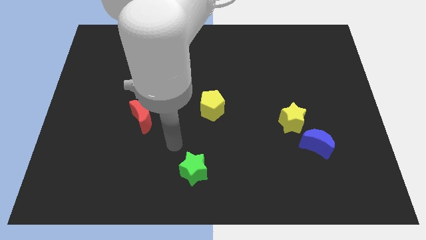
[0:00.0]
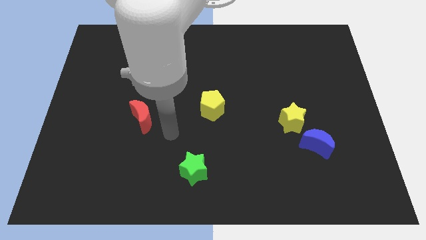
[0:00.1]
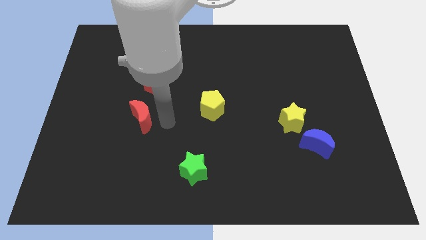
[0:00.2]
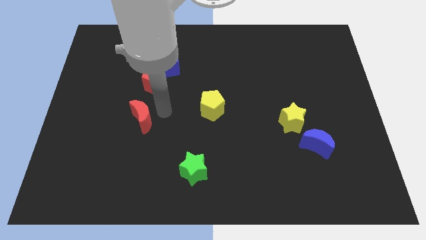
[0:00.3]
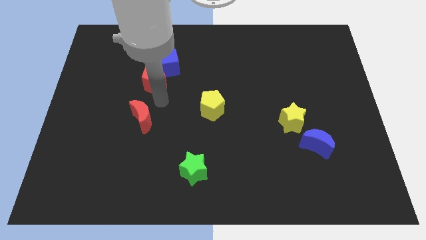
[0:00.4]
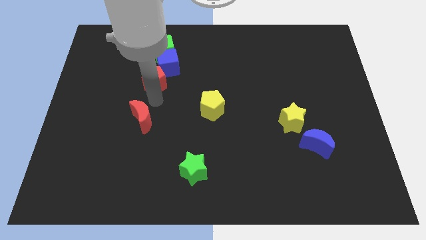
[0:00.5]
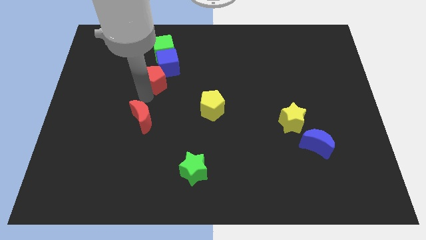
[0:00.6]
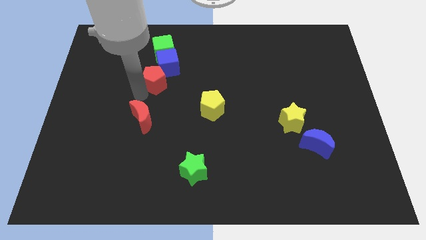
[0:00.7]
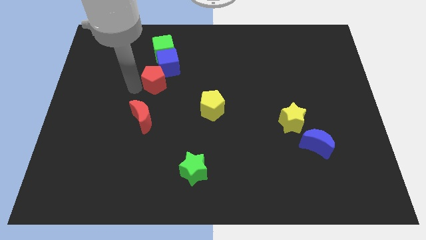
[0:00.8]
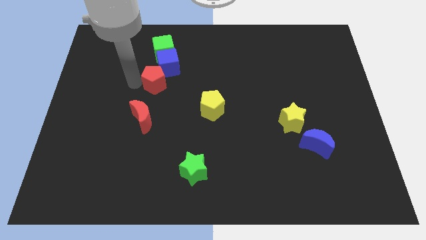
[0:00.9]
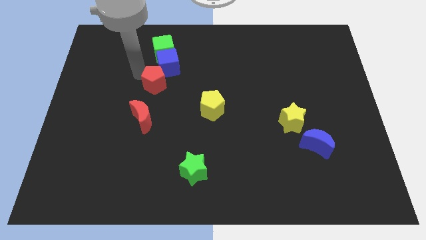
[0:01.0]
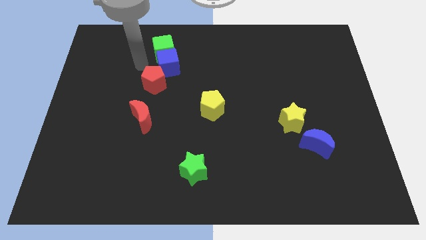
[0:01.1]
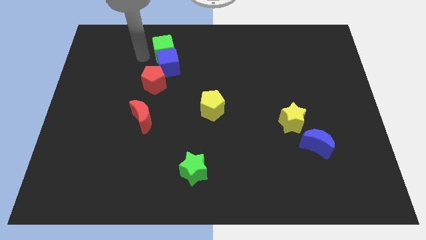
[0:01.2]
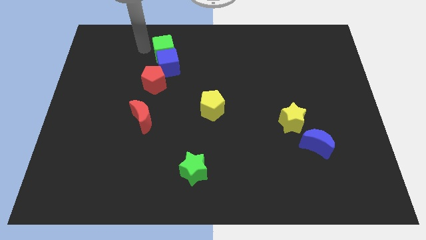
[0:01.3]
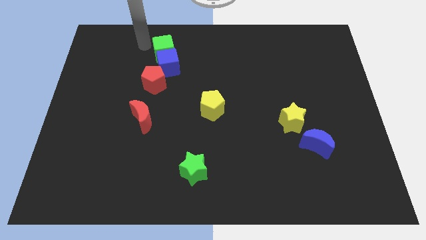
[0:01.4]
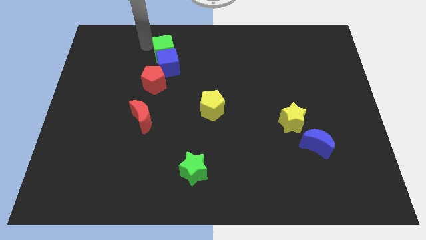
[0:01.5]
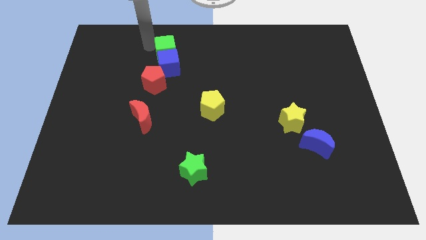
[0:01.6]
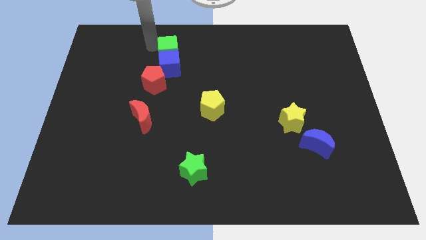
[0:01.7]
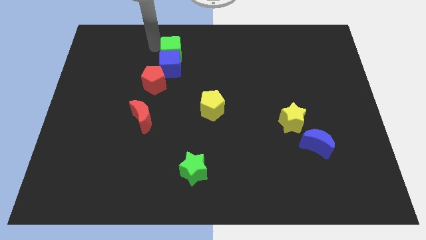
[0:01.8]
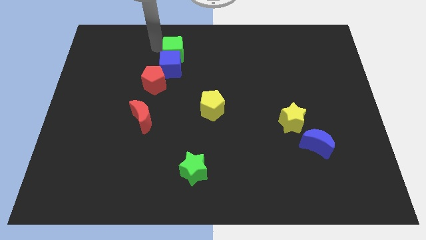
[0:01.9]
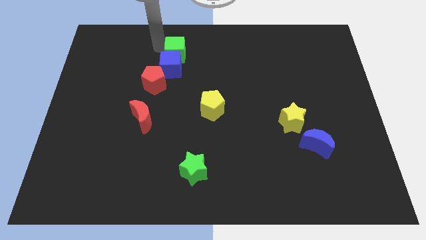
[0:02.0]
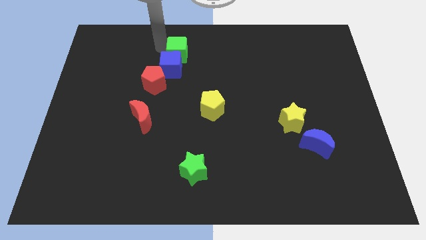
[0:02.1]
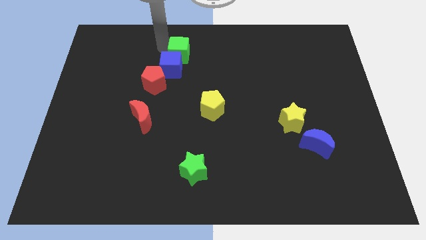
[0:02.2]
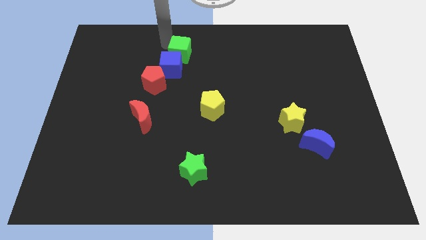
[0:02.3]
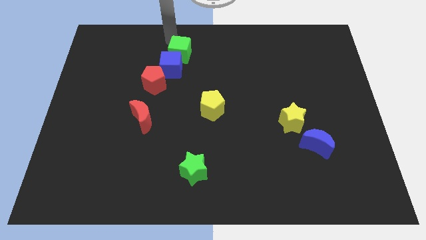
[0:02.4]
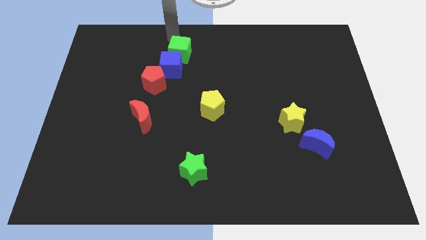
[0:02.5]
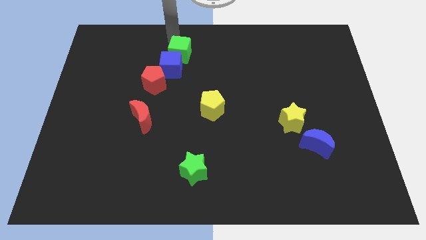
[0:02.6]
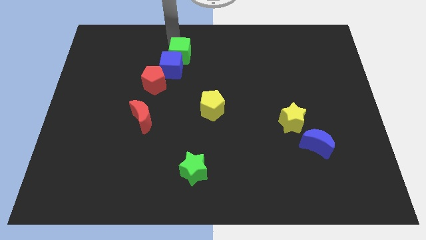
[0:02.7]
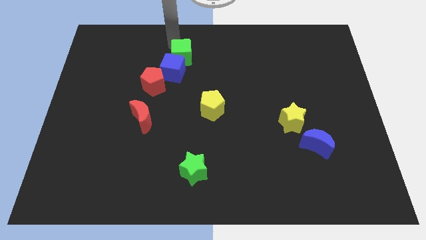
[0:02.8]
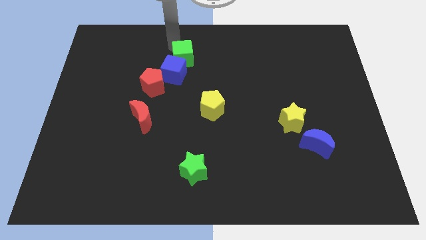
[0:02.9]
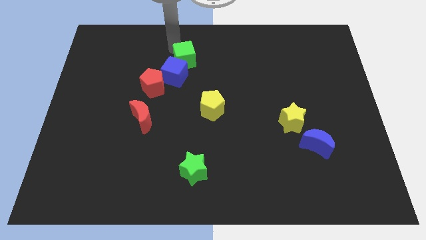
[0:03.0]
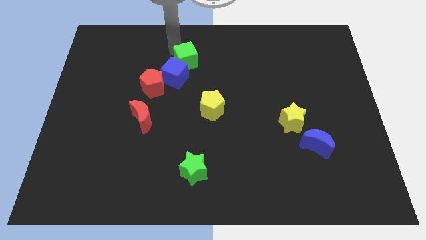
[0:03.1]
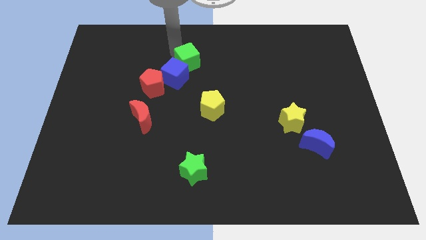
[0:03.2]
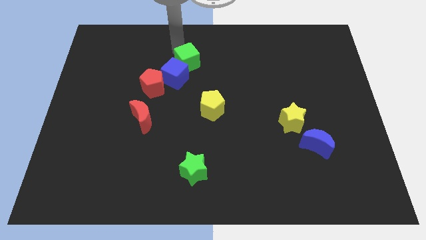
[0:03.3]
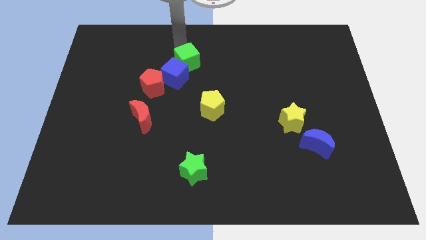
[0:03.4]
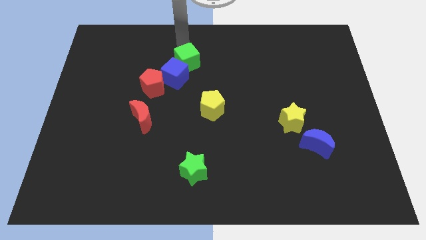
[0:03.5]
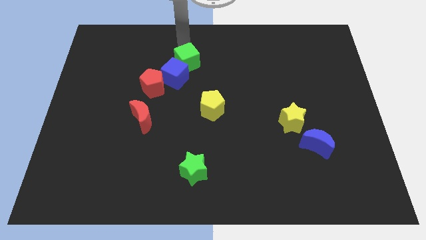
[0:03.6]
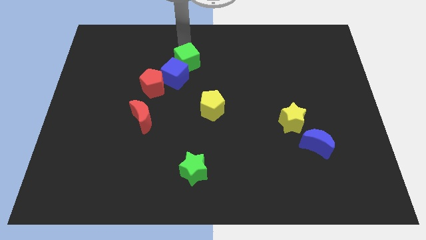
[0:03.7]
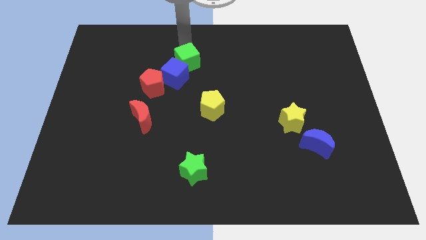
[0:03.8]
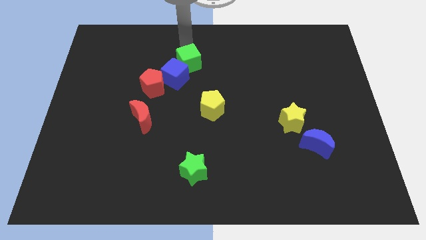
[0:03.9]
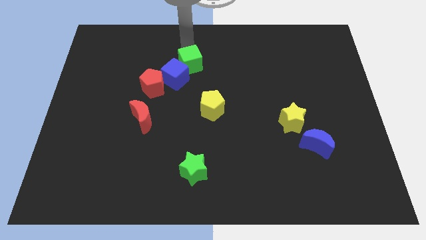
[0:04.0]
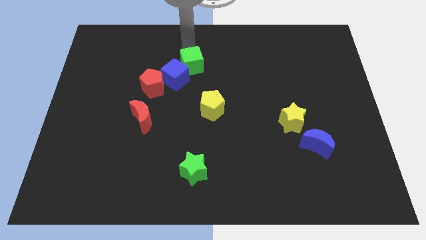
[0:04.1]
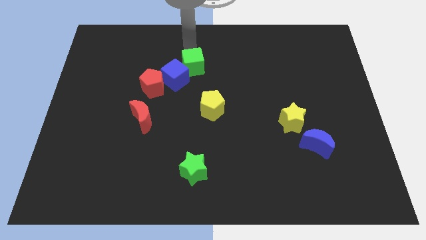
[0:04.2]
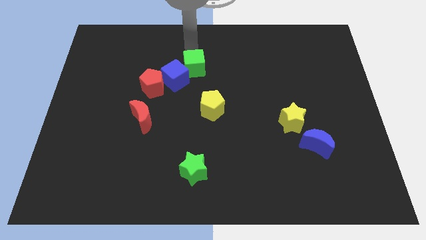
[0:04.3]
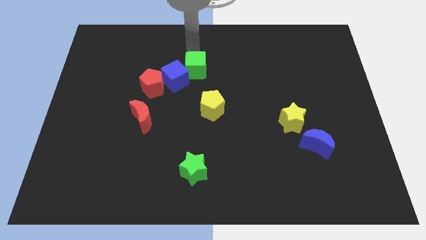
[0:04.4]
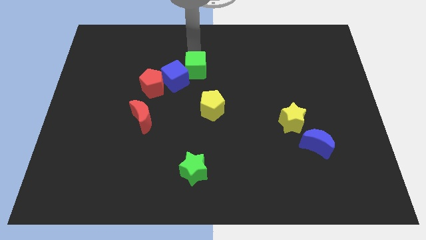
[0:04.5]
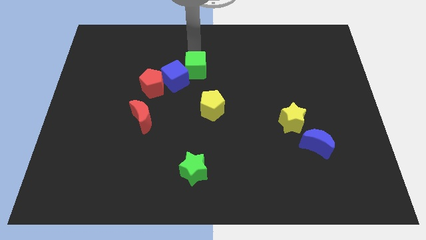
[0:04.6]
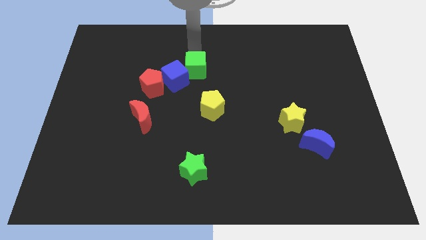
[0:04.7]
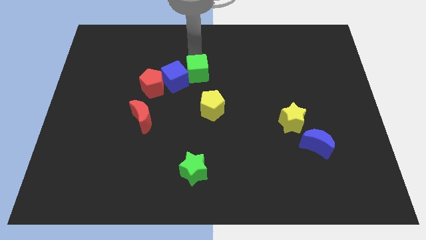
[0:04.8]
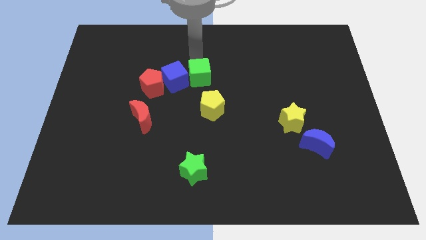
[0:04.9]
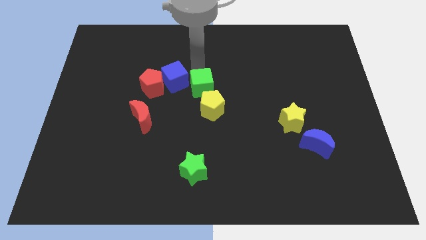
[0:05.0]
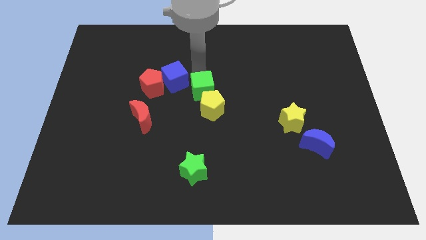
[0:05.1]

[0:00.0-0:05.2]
put the green cube close to the yellow pentagon

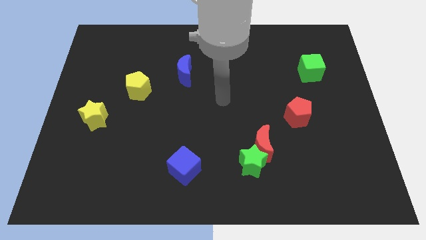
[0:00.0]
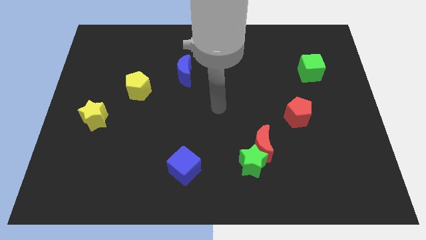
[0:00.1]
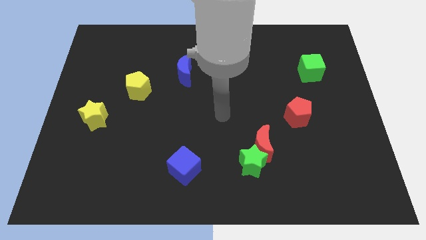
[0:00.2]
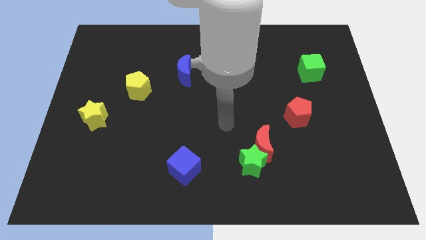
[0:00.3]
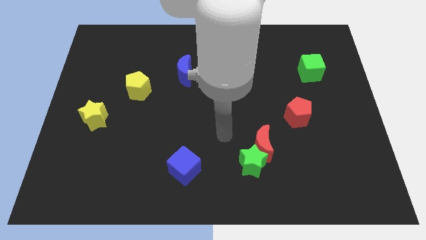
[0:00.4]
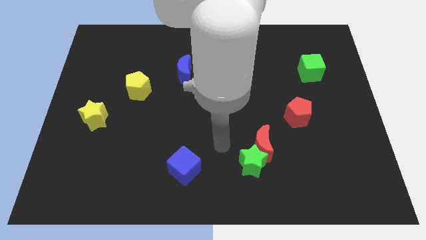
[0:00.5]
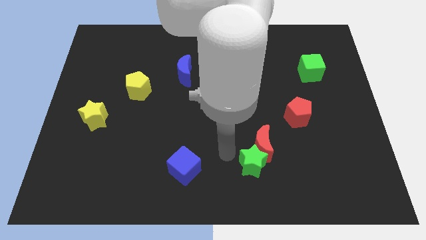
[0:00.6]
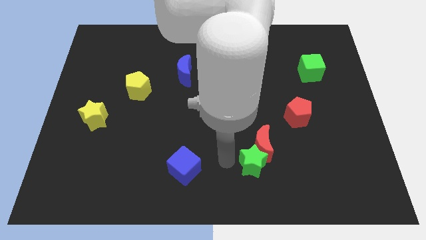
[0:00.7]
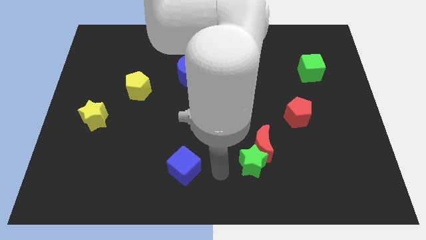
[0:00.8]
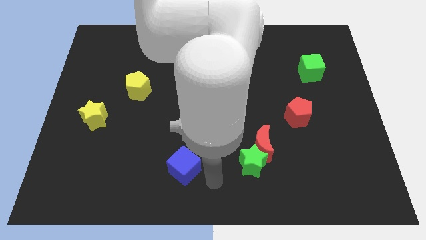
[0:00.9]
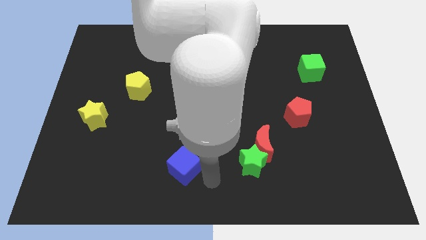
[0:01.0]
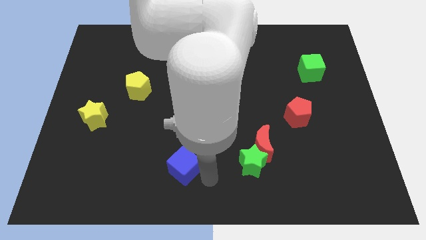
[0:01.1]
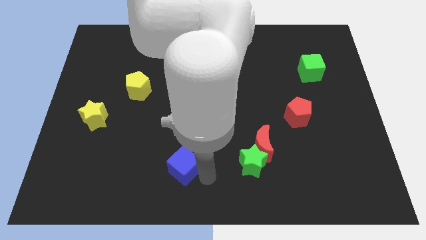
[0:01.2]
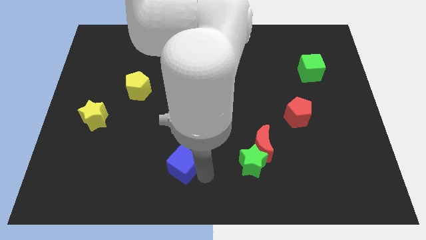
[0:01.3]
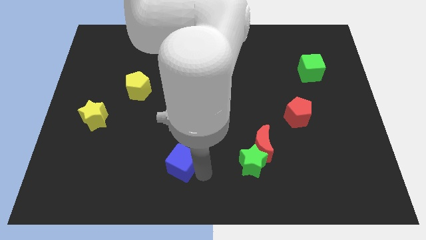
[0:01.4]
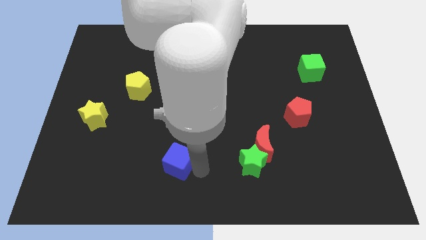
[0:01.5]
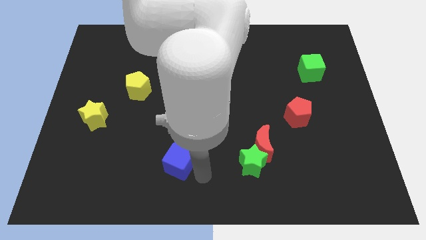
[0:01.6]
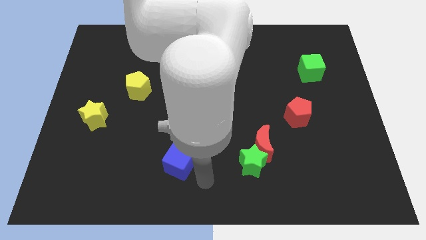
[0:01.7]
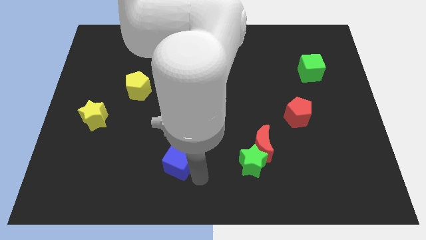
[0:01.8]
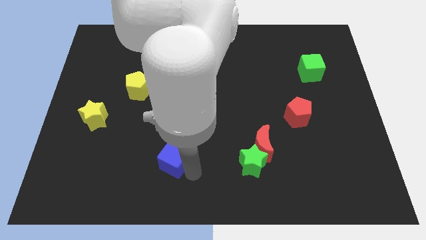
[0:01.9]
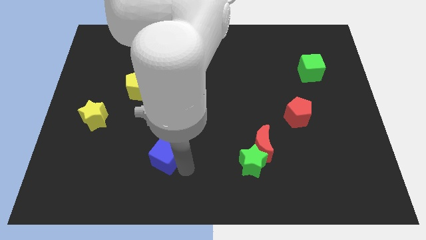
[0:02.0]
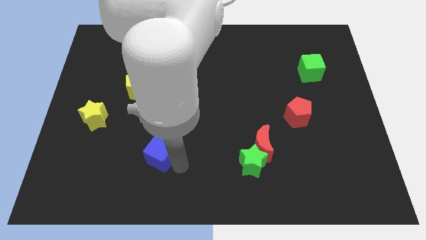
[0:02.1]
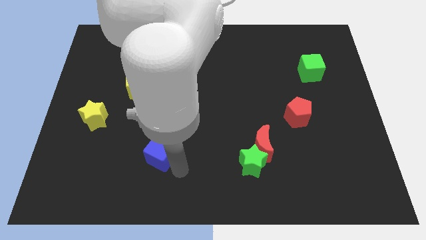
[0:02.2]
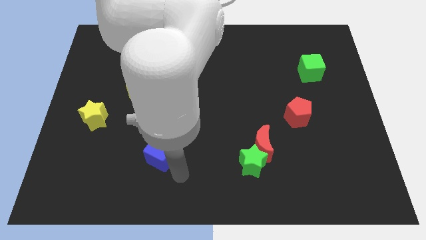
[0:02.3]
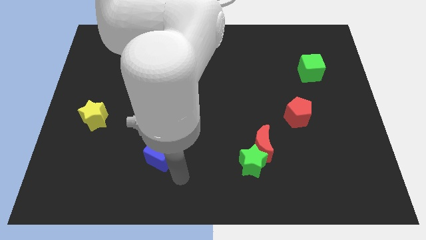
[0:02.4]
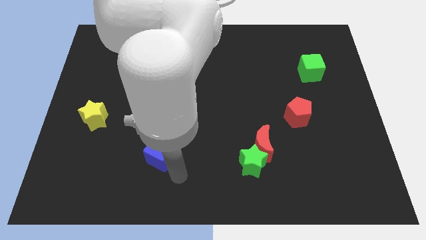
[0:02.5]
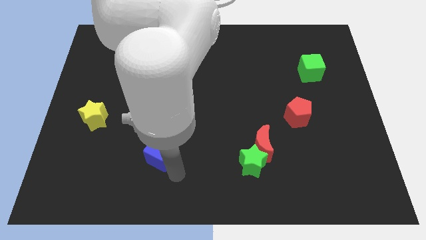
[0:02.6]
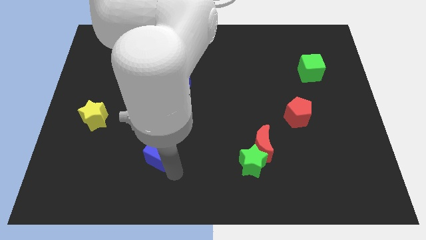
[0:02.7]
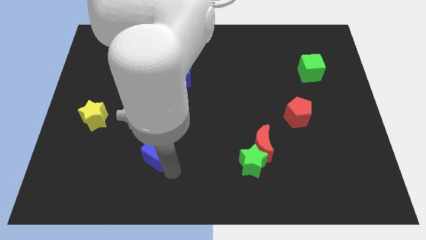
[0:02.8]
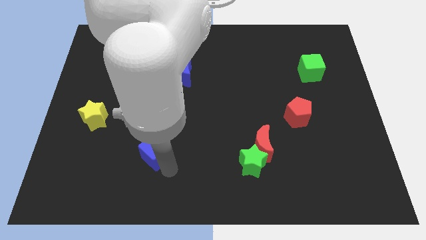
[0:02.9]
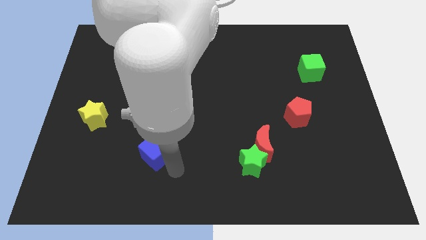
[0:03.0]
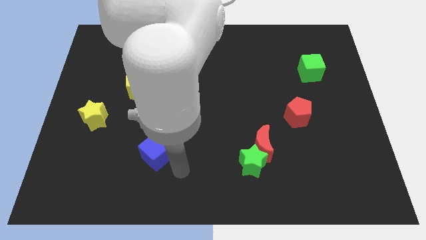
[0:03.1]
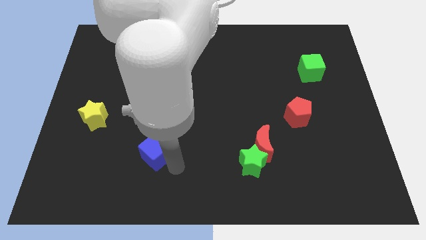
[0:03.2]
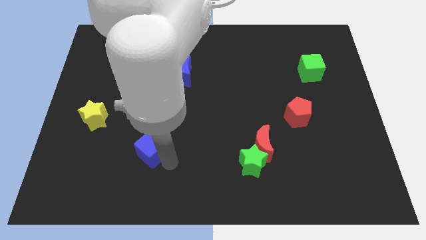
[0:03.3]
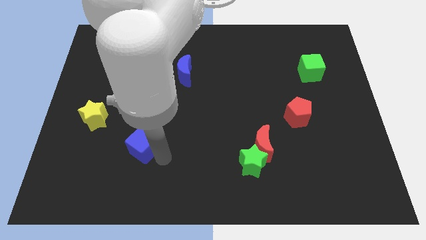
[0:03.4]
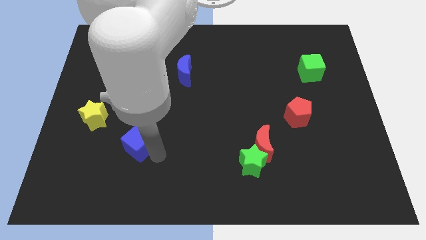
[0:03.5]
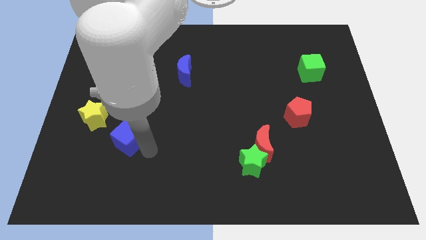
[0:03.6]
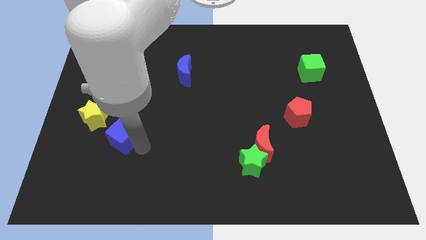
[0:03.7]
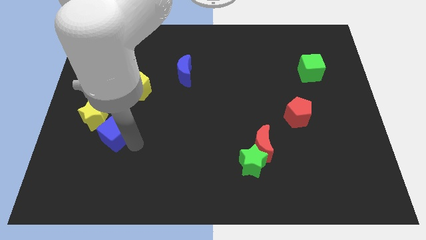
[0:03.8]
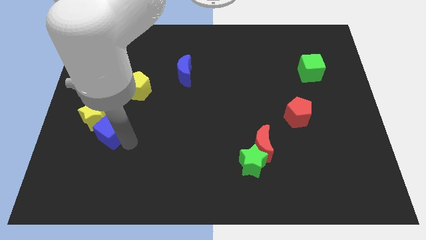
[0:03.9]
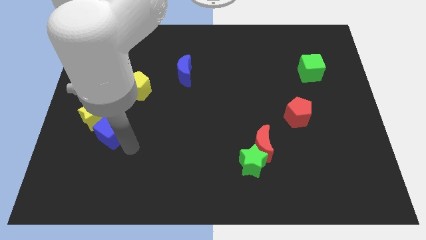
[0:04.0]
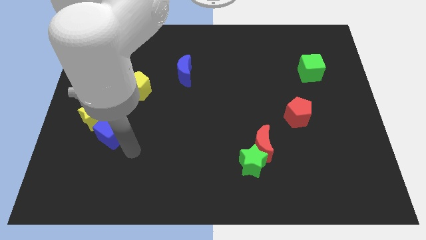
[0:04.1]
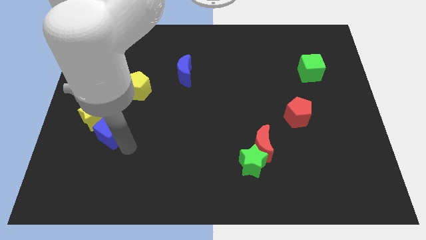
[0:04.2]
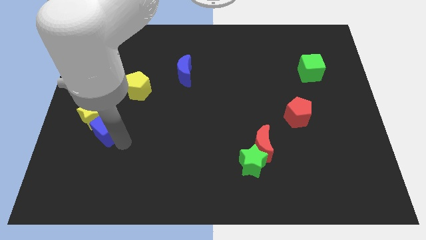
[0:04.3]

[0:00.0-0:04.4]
push the blue cube towards the yellow star
